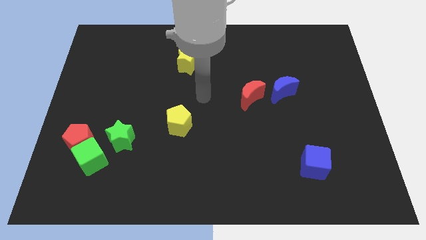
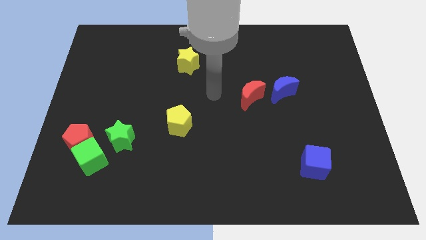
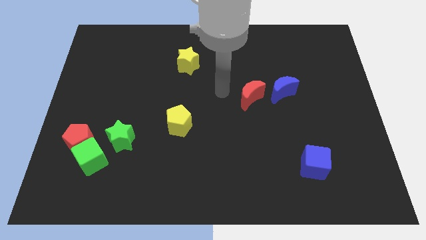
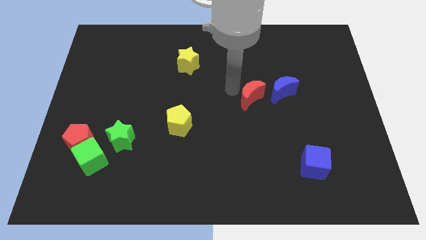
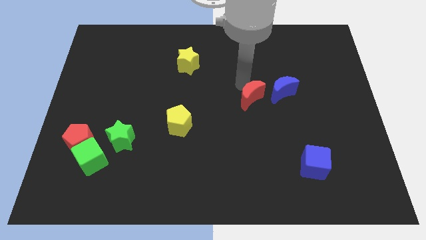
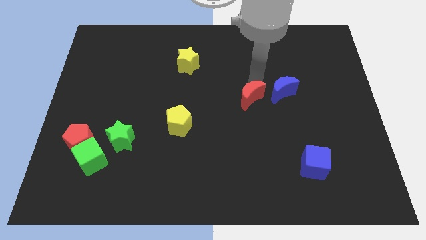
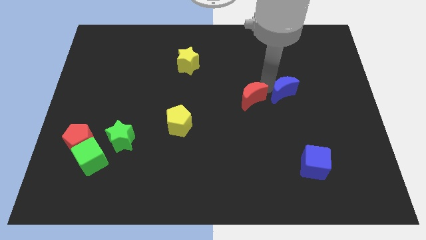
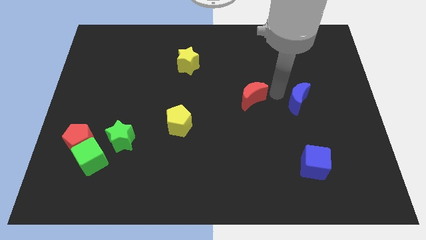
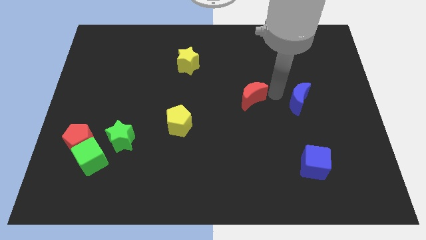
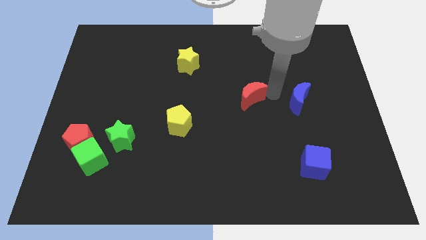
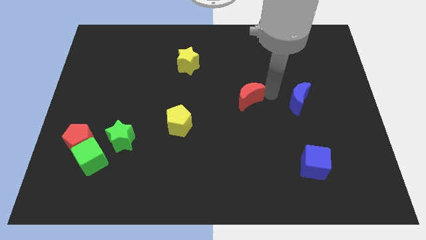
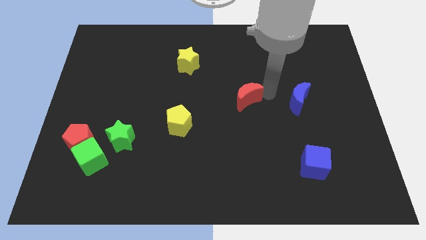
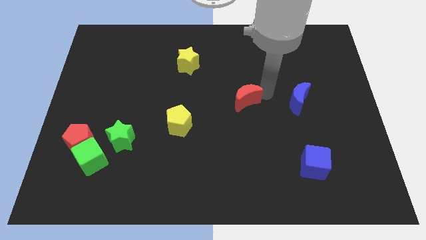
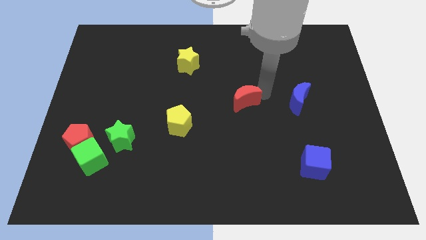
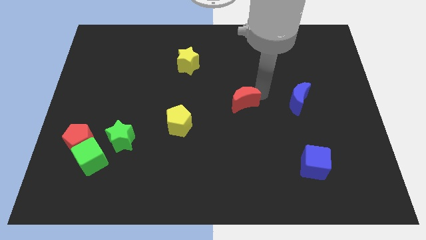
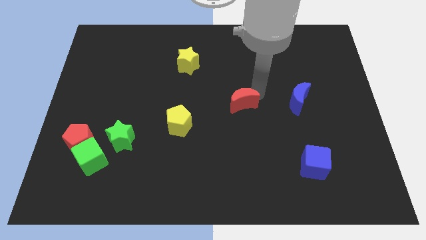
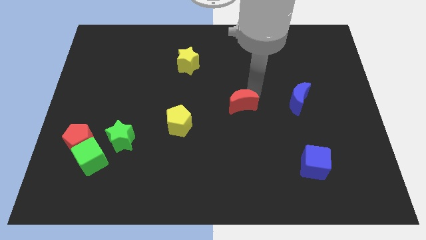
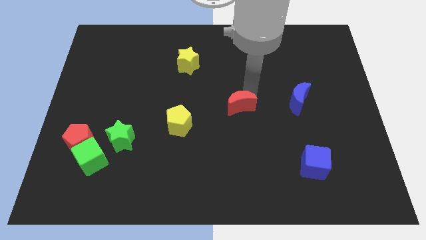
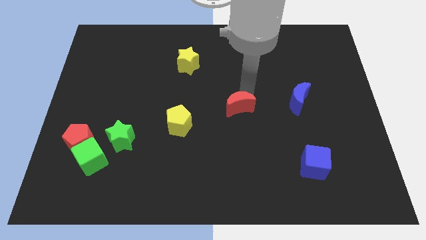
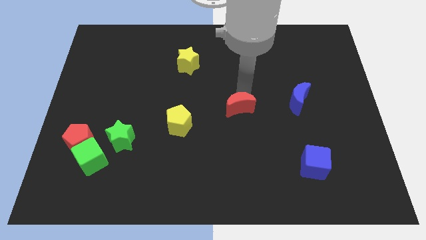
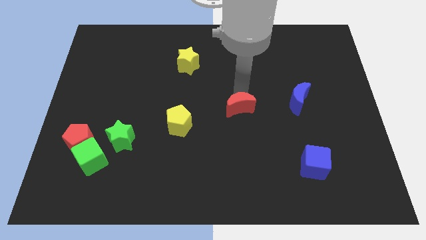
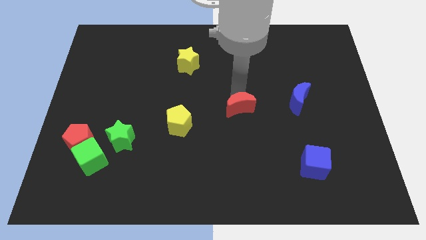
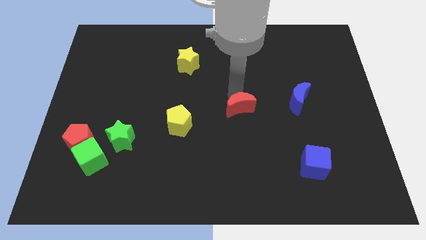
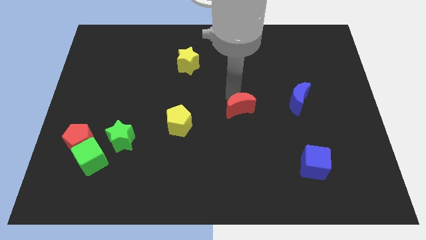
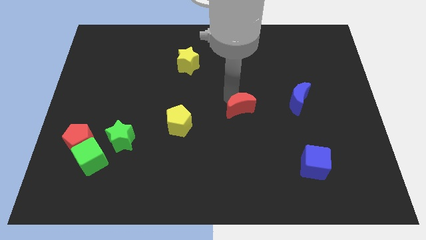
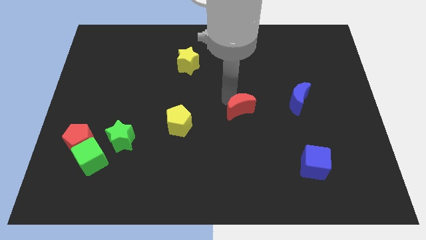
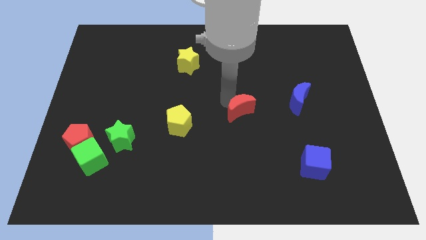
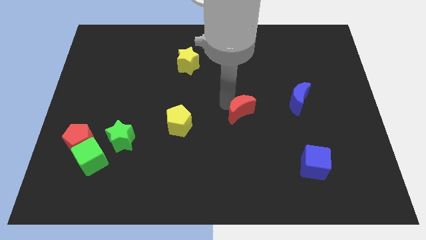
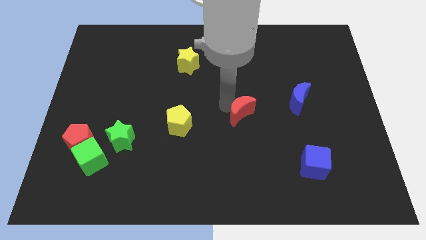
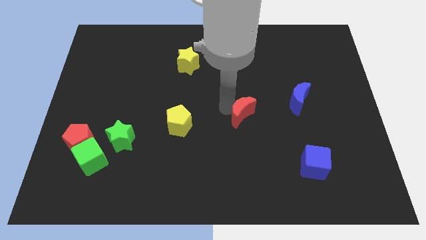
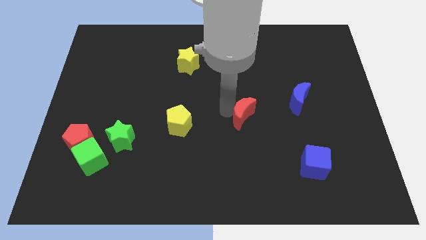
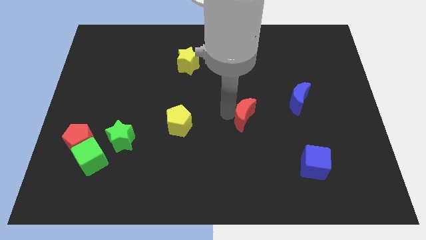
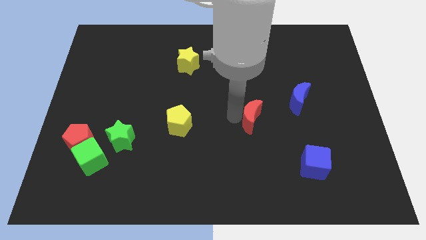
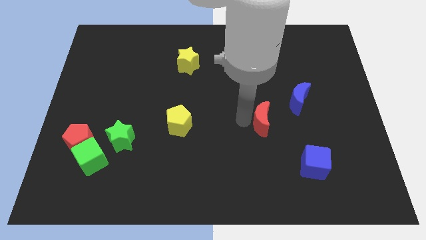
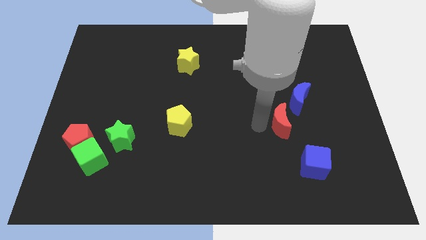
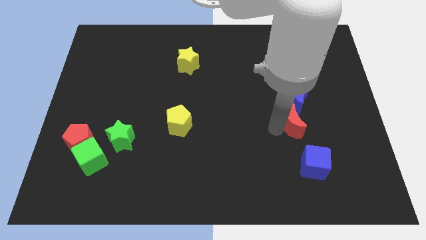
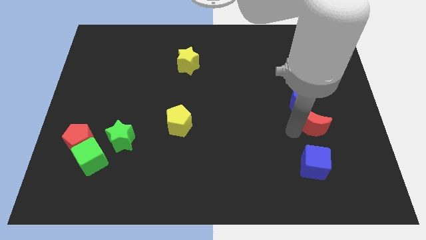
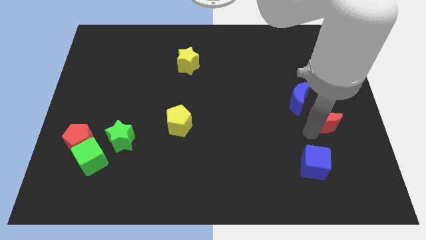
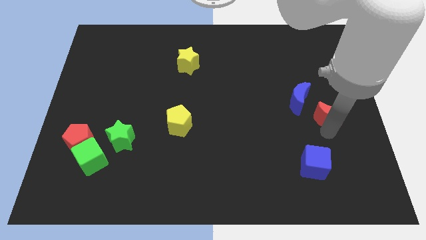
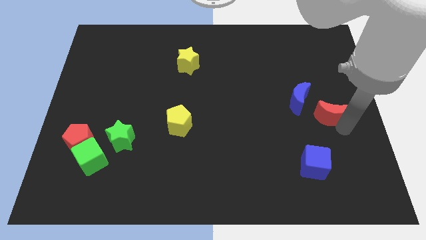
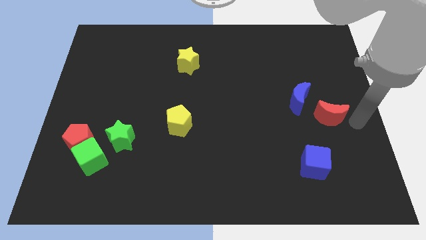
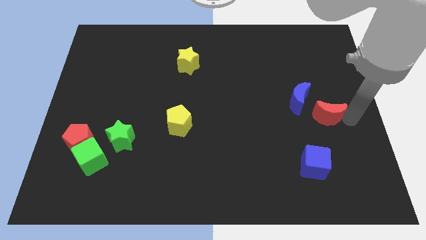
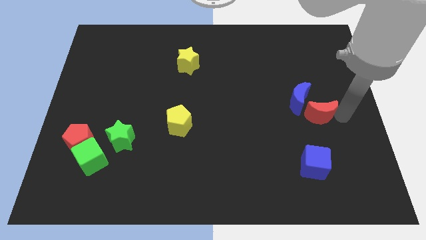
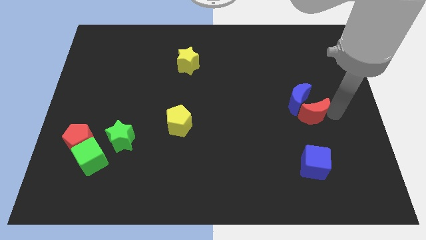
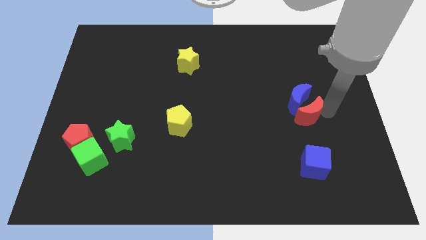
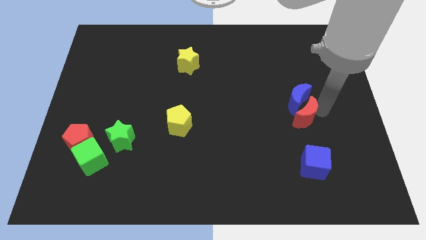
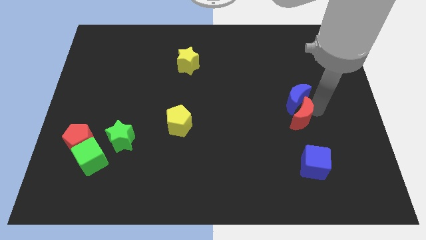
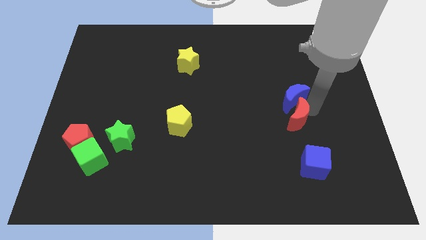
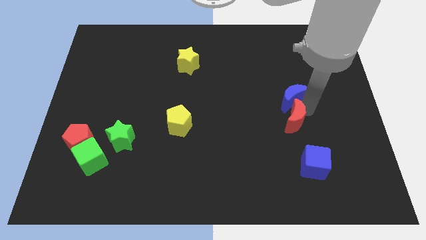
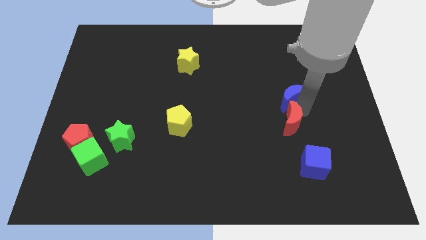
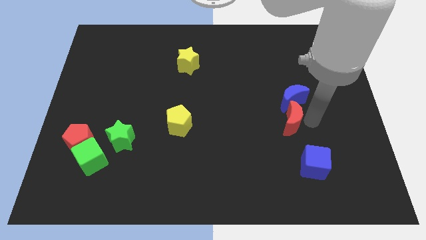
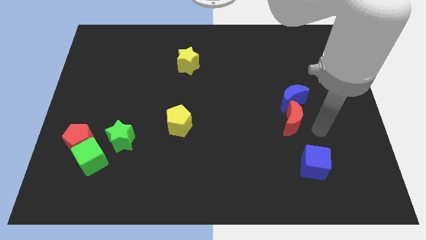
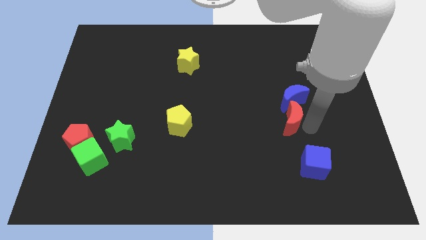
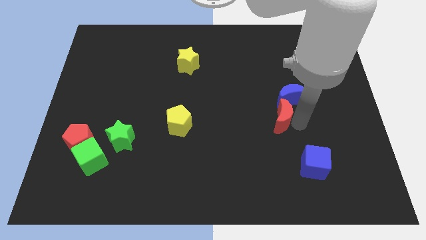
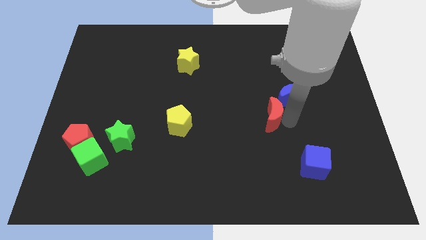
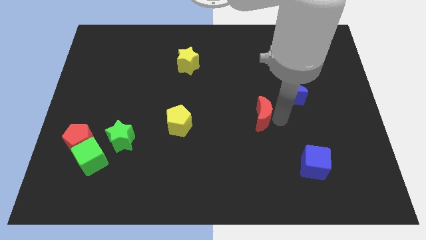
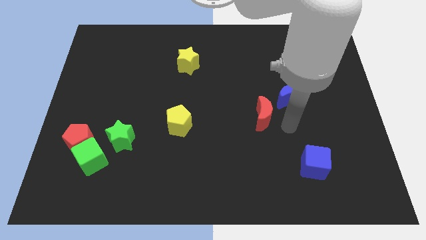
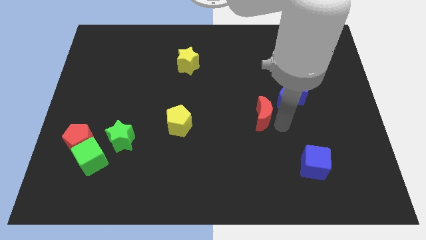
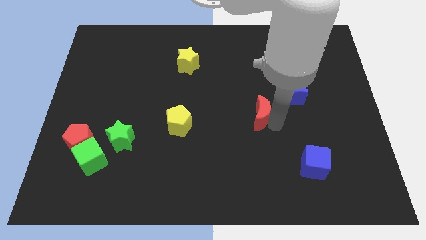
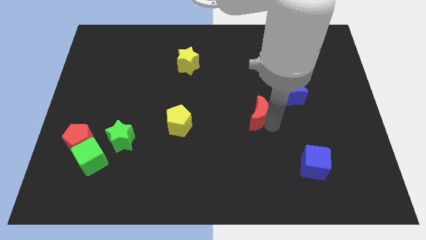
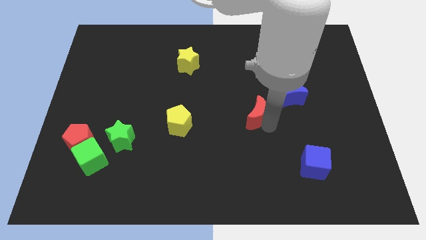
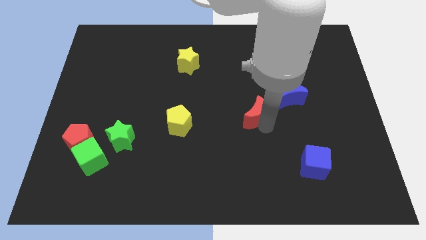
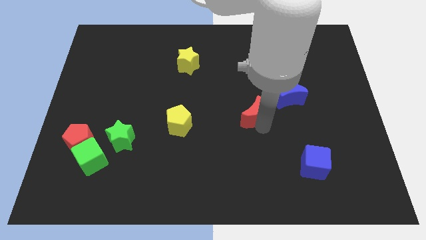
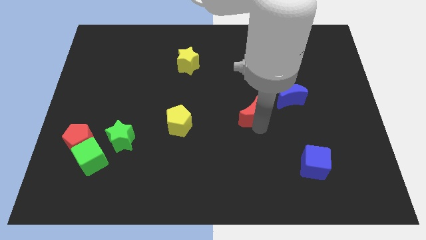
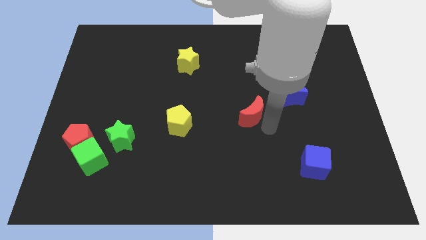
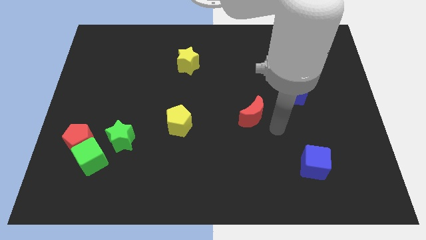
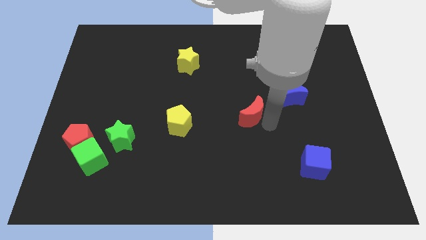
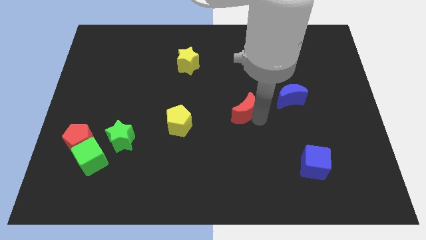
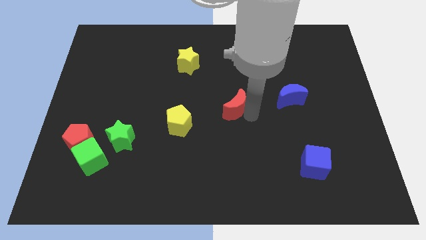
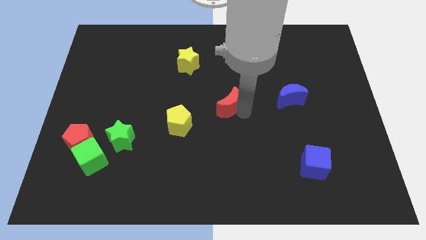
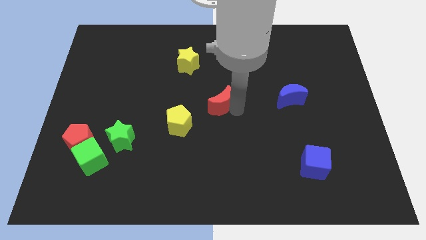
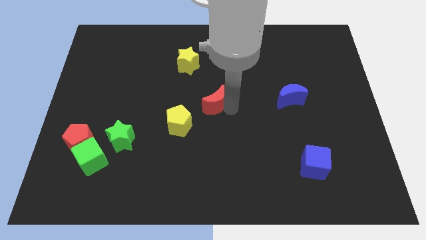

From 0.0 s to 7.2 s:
slide the red moon a little bit to the left

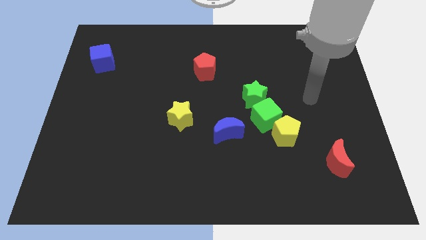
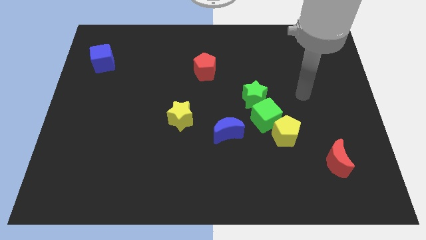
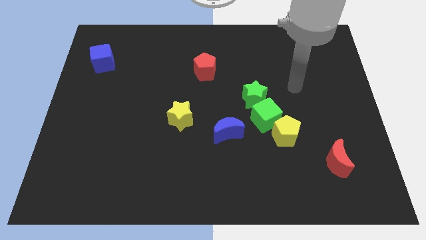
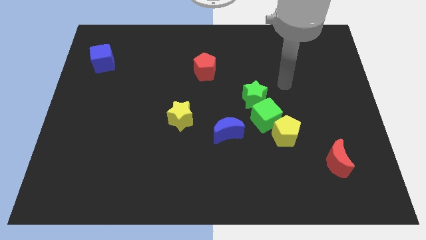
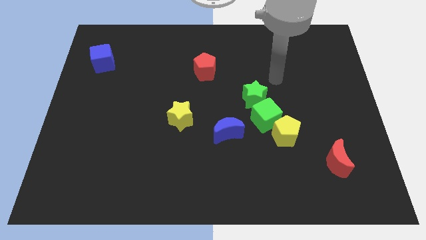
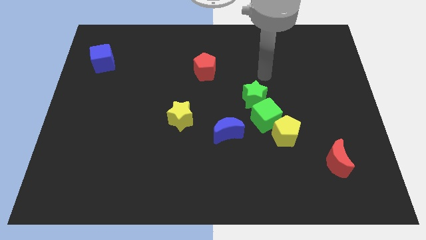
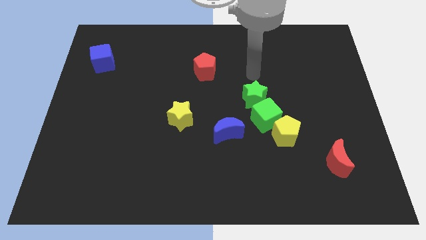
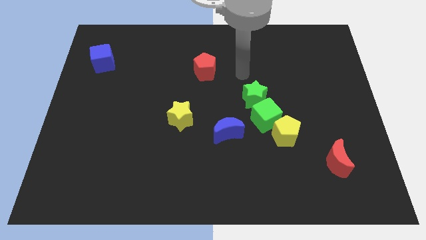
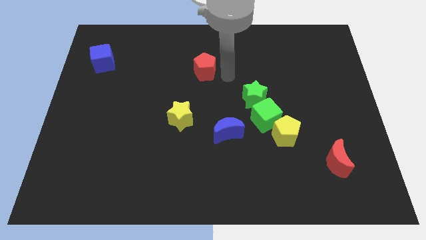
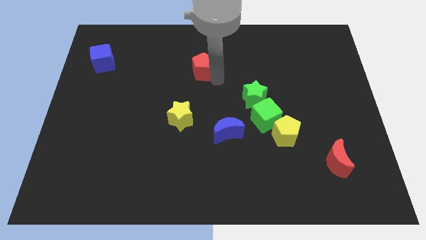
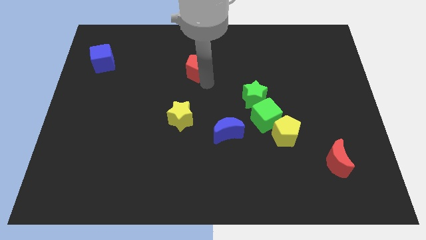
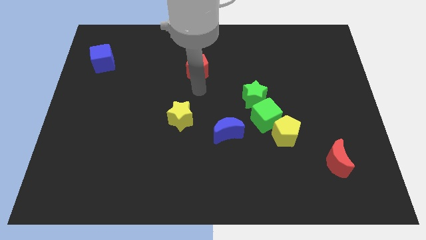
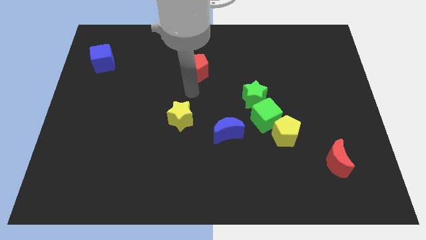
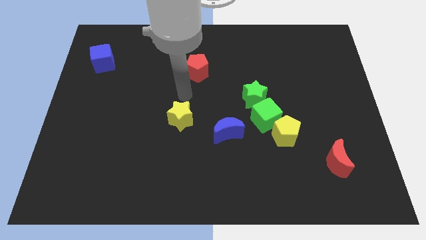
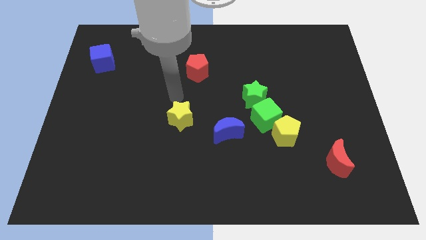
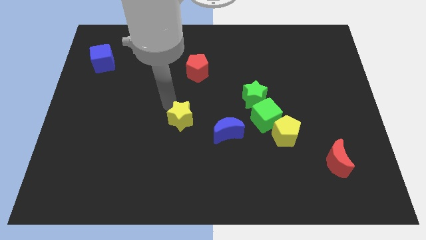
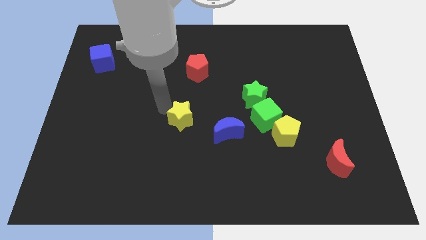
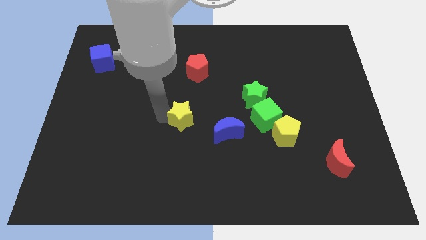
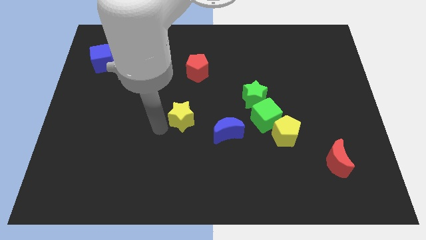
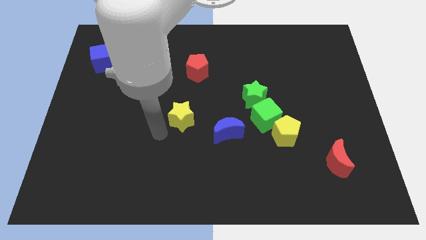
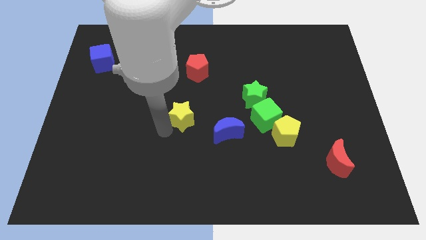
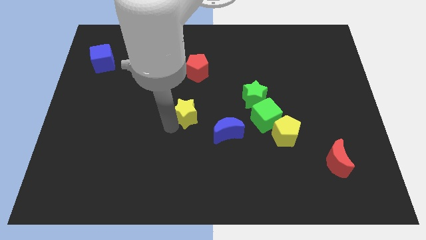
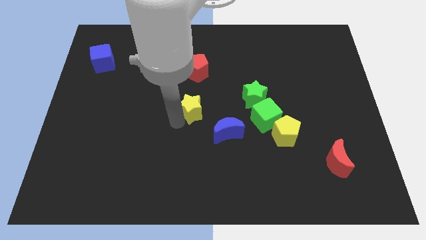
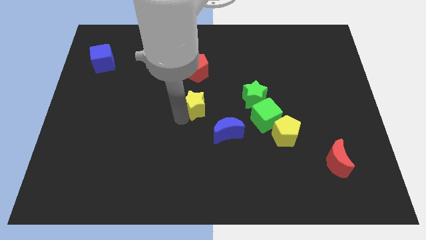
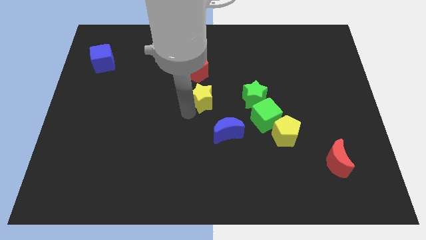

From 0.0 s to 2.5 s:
push the yellow star a bit up and right diagonally
